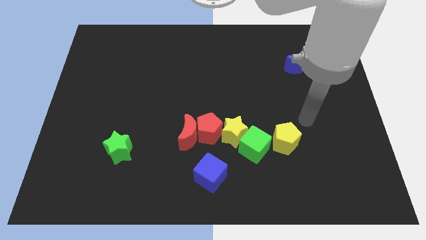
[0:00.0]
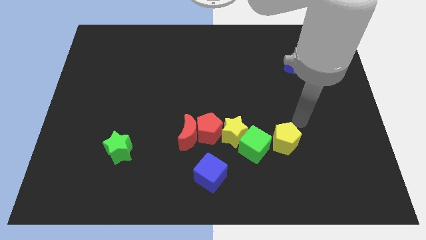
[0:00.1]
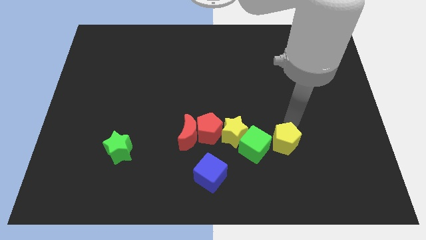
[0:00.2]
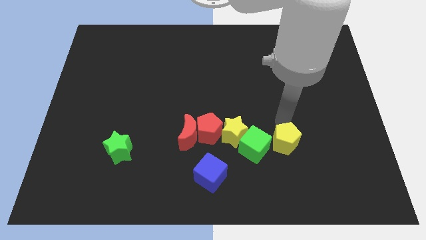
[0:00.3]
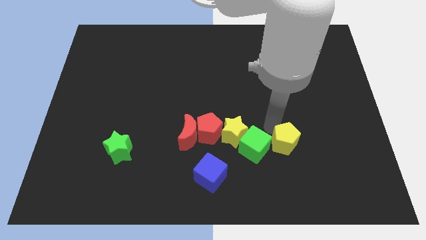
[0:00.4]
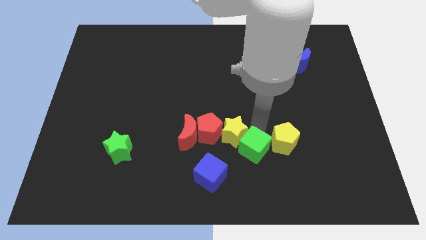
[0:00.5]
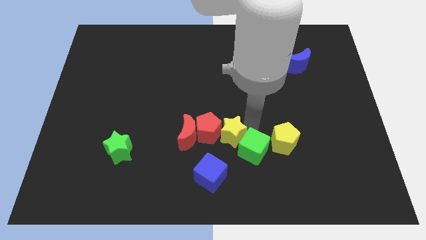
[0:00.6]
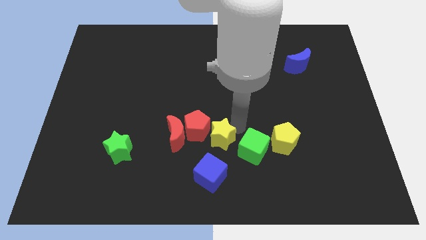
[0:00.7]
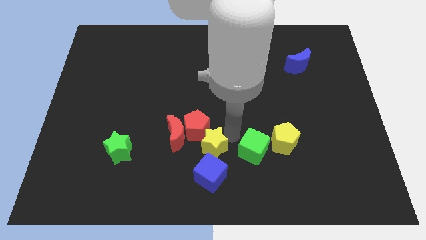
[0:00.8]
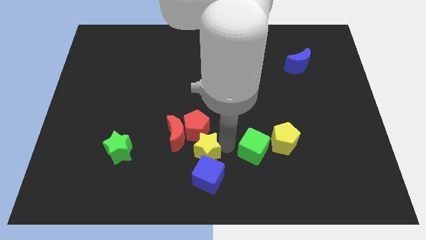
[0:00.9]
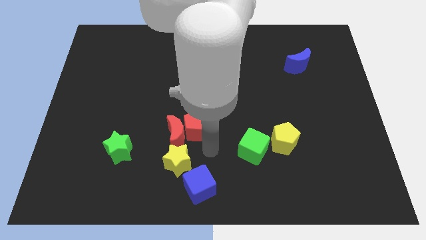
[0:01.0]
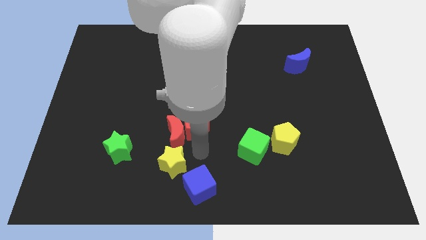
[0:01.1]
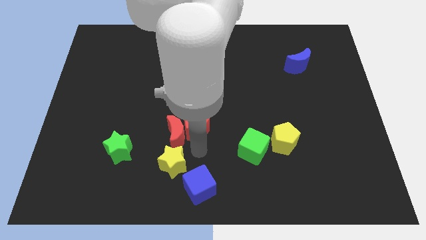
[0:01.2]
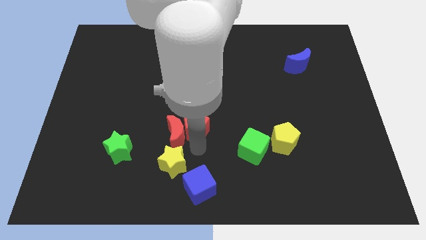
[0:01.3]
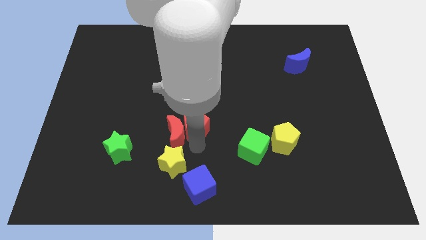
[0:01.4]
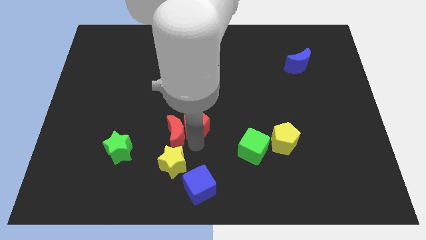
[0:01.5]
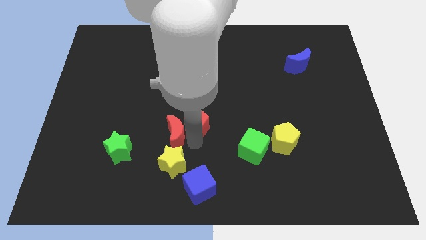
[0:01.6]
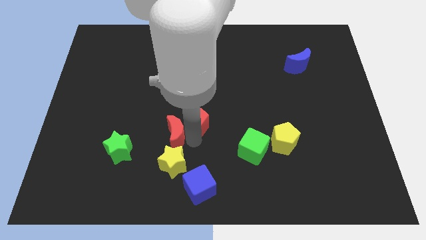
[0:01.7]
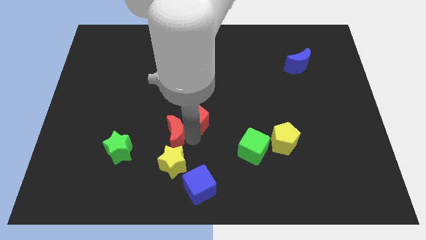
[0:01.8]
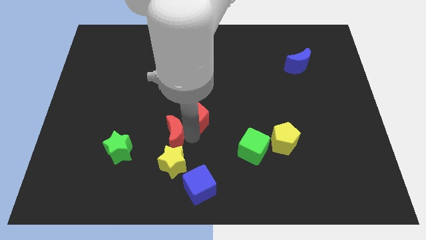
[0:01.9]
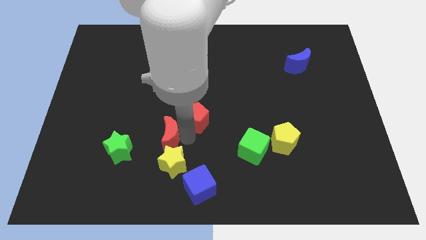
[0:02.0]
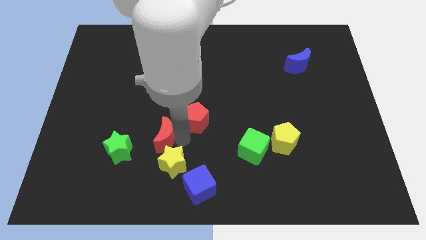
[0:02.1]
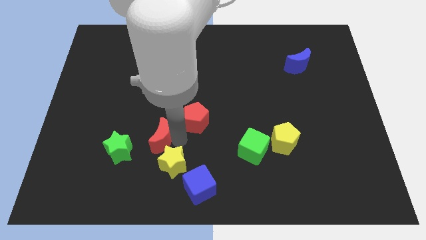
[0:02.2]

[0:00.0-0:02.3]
pull the red pentagon apart from the red moon and yellow star

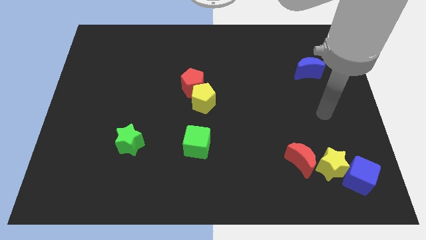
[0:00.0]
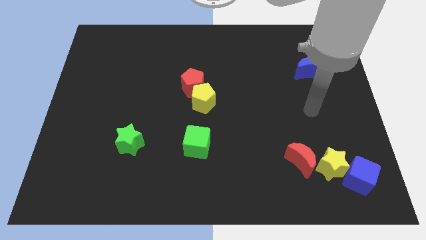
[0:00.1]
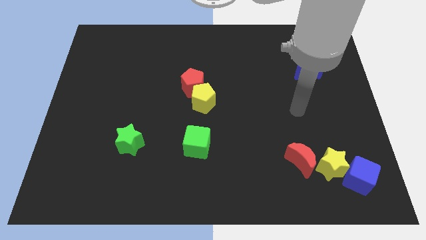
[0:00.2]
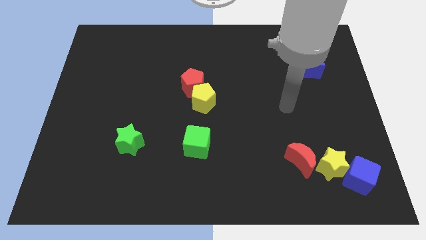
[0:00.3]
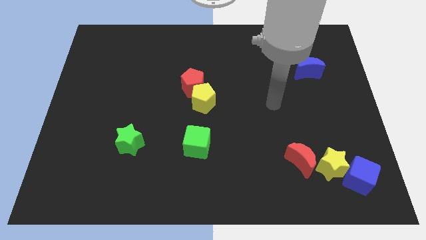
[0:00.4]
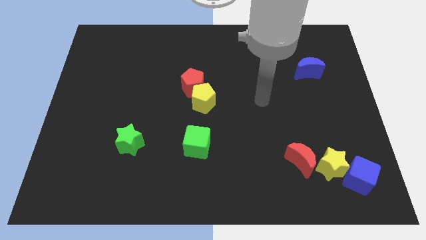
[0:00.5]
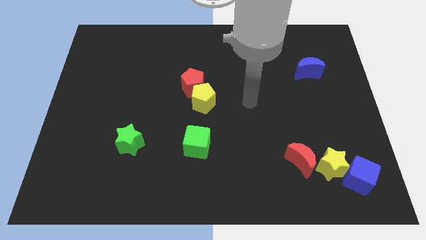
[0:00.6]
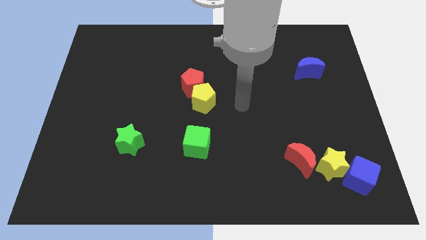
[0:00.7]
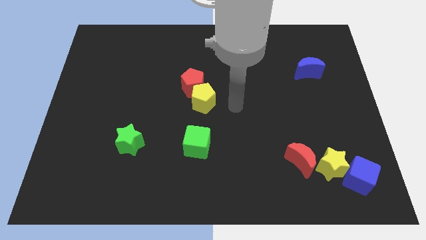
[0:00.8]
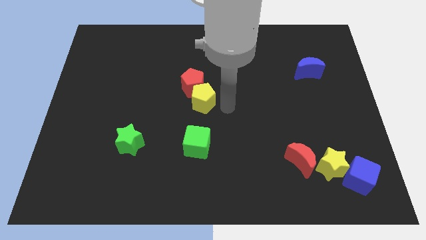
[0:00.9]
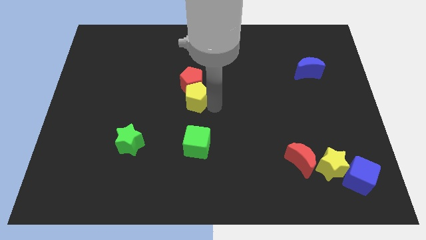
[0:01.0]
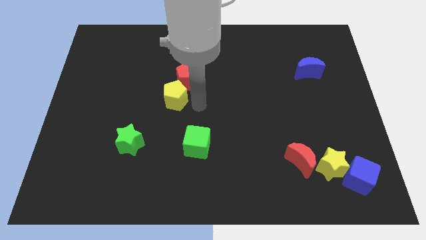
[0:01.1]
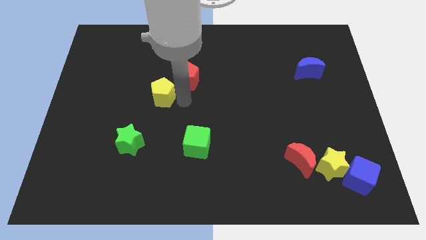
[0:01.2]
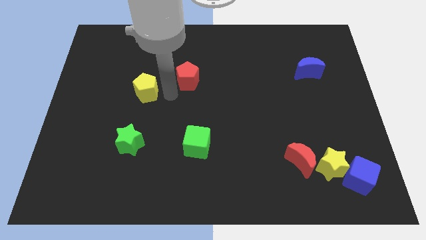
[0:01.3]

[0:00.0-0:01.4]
move the red pentagon away from the yellow pentagon

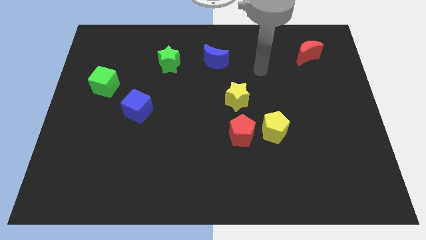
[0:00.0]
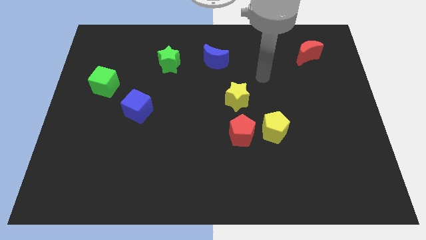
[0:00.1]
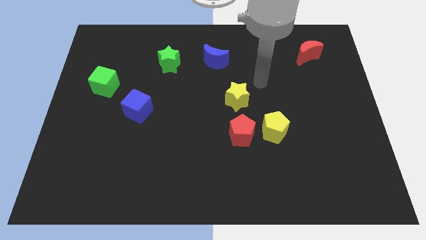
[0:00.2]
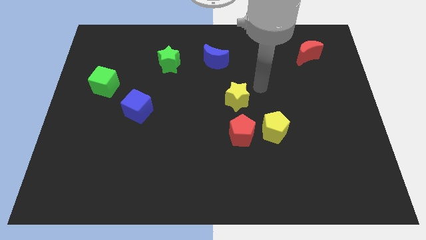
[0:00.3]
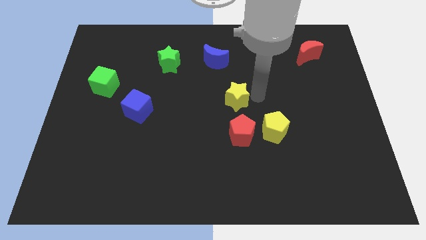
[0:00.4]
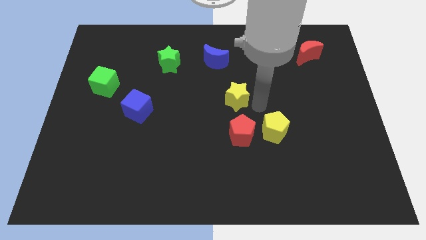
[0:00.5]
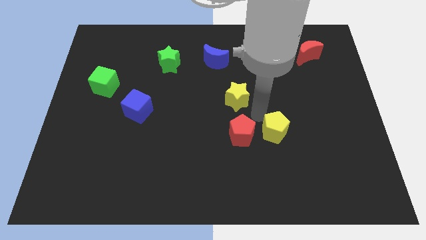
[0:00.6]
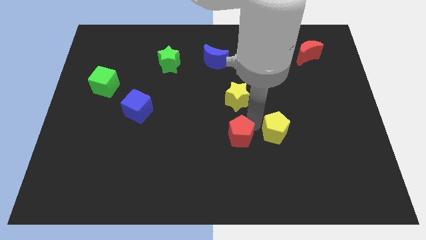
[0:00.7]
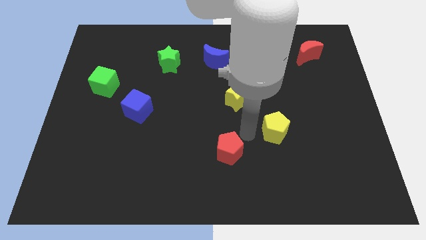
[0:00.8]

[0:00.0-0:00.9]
separate the yellow pentagon from the red pentagon

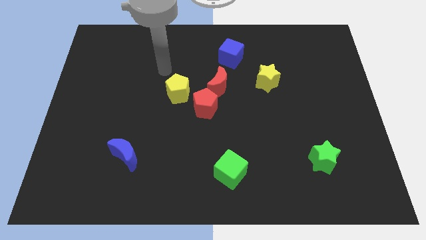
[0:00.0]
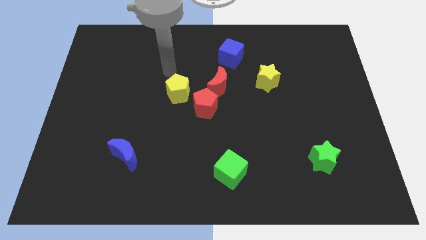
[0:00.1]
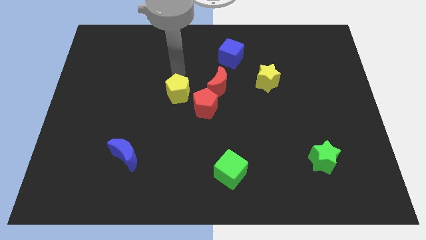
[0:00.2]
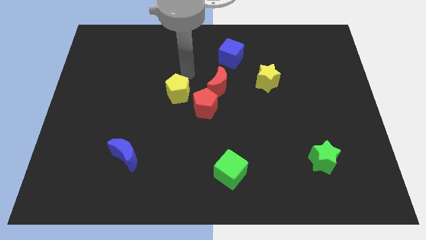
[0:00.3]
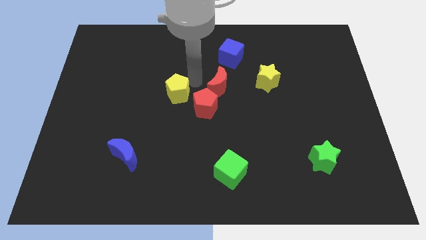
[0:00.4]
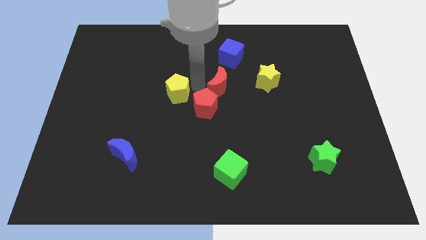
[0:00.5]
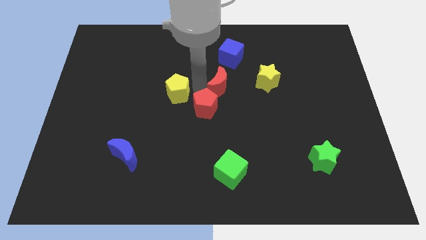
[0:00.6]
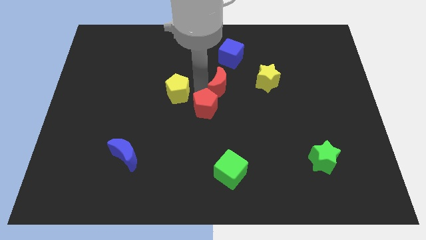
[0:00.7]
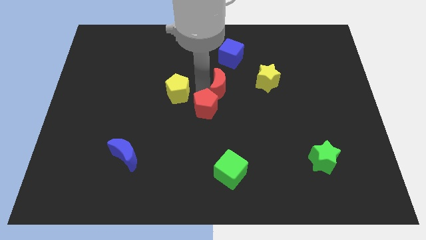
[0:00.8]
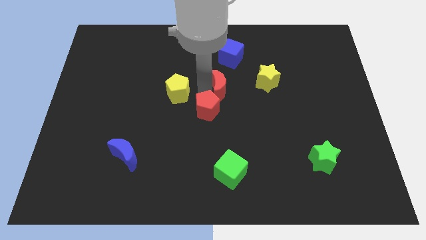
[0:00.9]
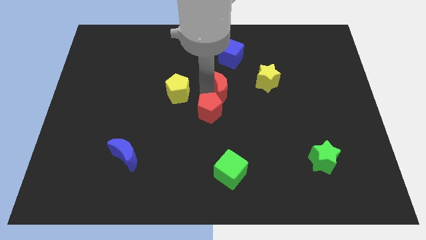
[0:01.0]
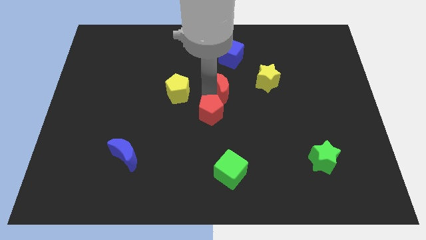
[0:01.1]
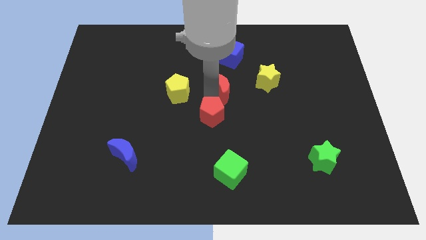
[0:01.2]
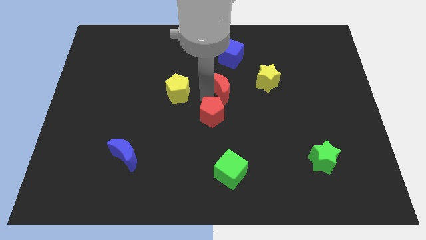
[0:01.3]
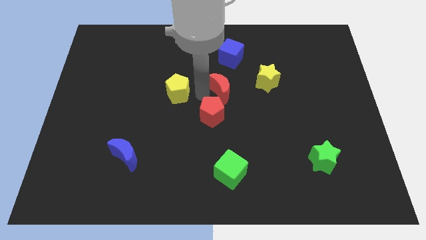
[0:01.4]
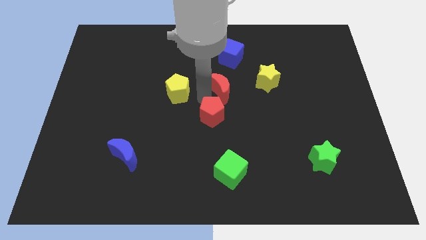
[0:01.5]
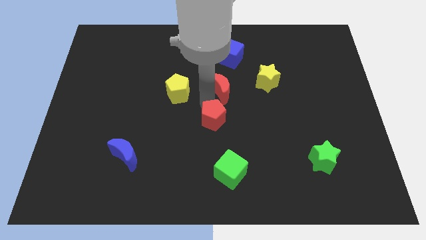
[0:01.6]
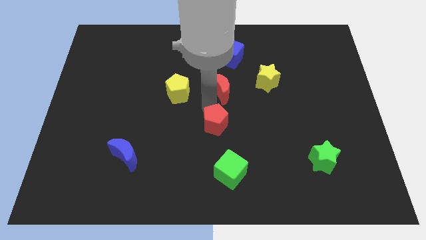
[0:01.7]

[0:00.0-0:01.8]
separate the red pentagon from the red moon and yellow pentagon

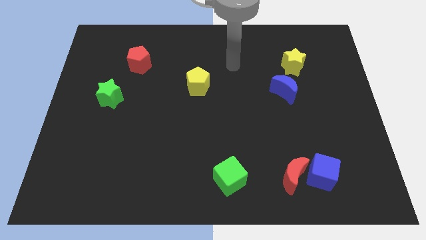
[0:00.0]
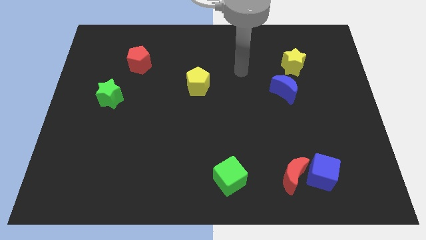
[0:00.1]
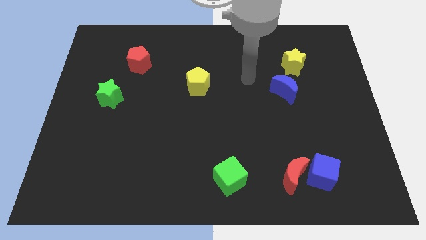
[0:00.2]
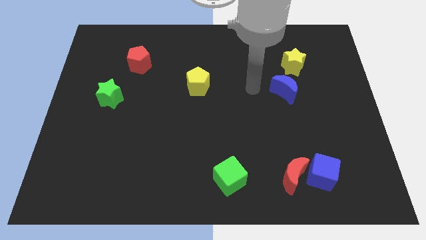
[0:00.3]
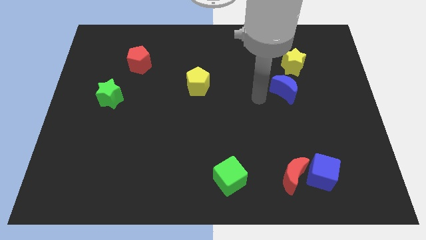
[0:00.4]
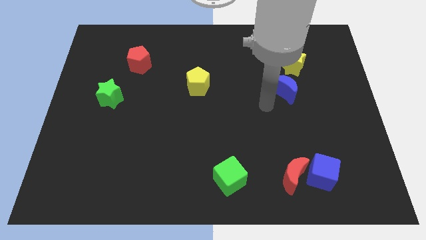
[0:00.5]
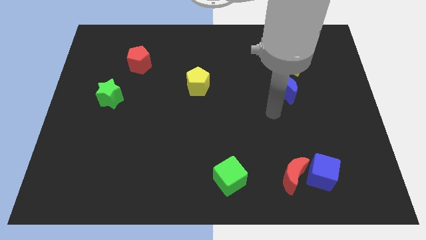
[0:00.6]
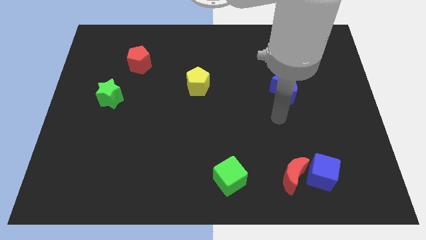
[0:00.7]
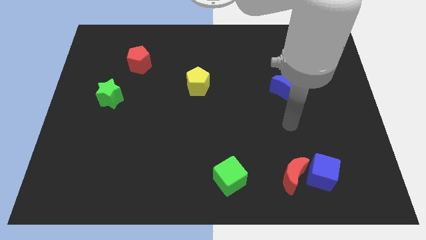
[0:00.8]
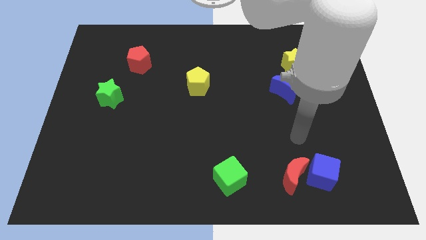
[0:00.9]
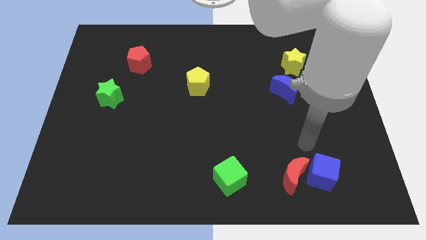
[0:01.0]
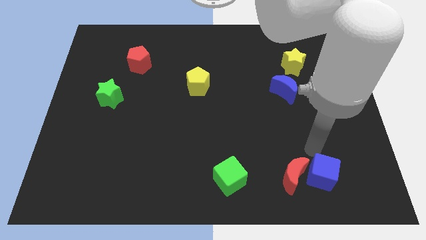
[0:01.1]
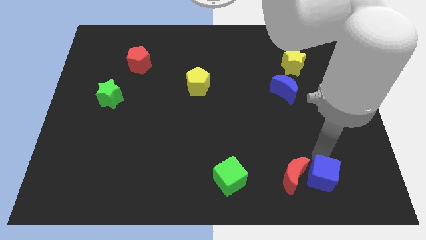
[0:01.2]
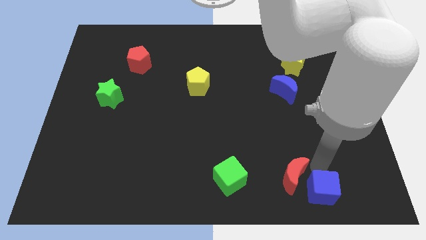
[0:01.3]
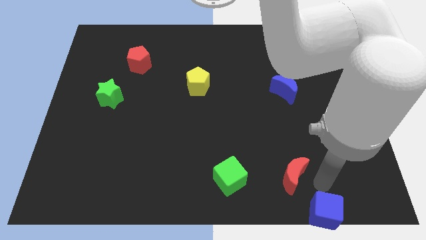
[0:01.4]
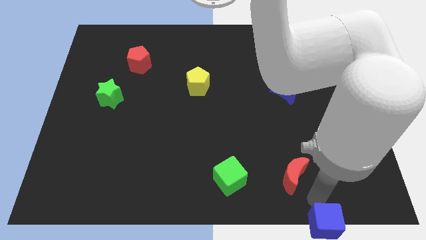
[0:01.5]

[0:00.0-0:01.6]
separate the red moon from the blue cube

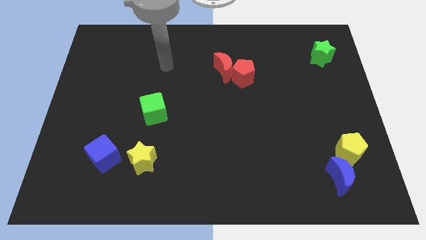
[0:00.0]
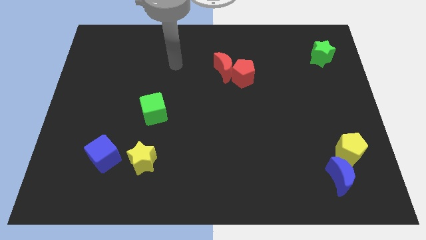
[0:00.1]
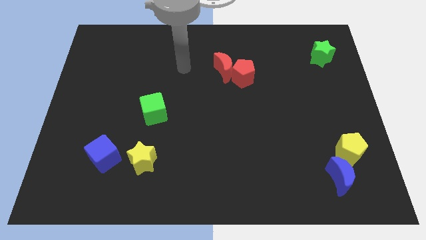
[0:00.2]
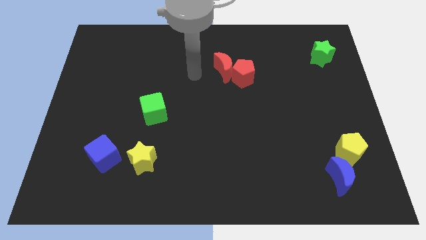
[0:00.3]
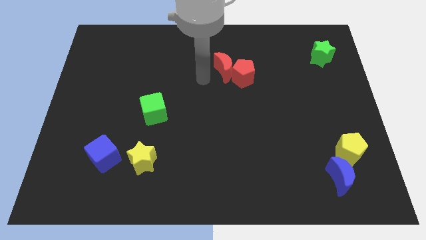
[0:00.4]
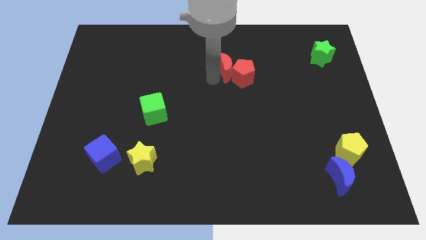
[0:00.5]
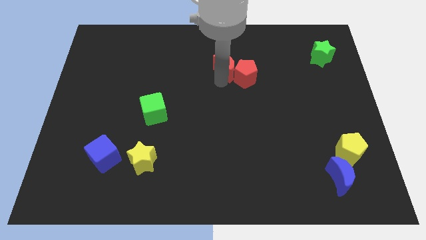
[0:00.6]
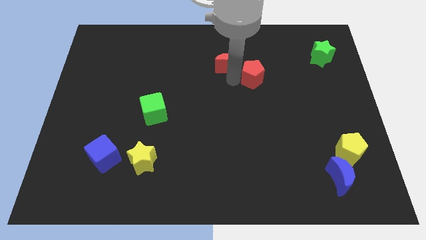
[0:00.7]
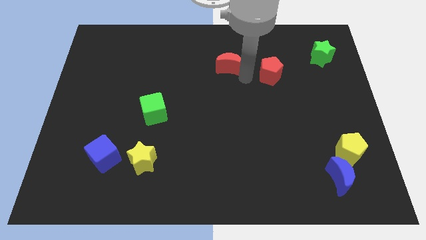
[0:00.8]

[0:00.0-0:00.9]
separate the red moon from the red pentagon

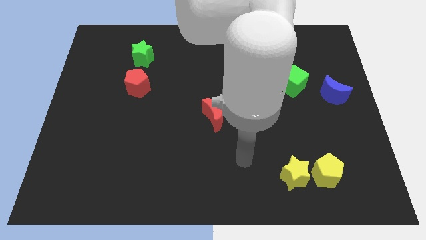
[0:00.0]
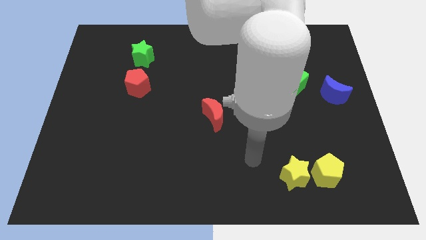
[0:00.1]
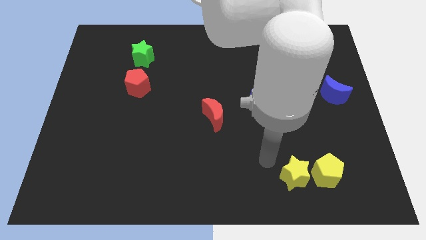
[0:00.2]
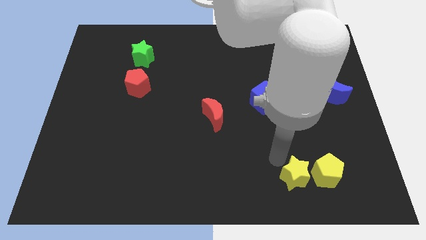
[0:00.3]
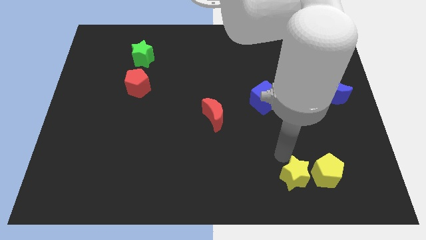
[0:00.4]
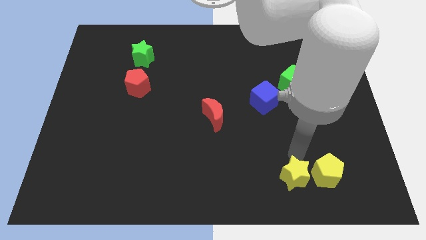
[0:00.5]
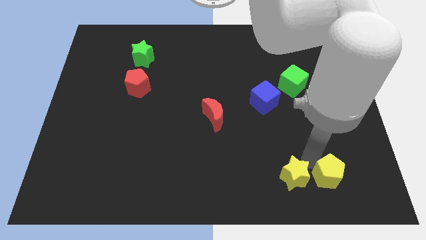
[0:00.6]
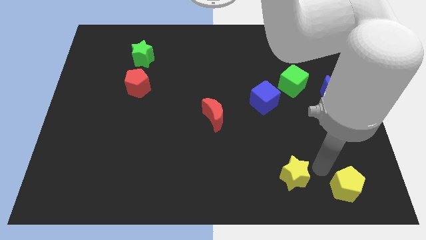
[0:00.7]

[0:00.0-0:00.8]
move the yellow star away from the yellow pentagon
